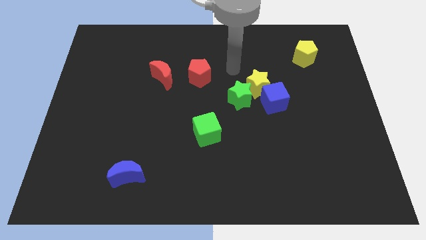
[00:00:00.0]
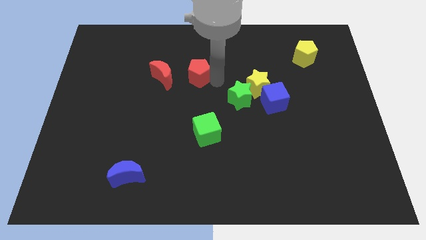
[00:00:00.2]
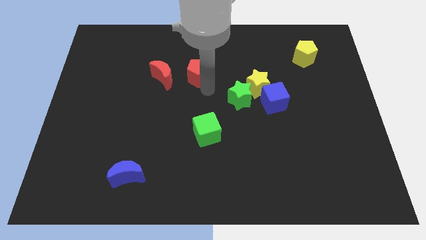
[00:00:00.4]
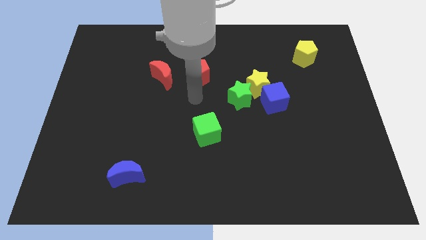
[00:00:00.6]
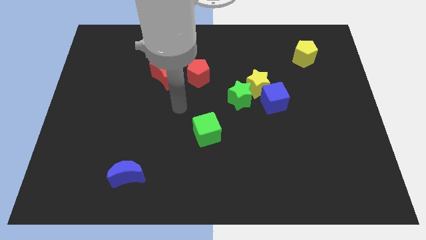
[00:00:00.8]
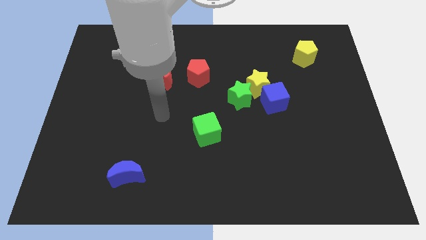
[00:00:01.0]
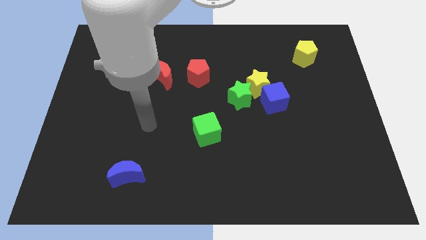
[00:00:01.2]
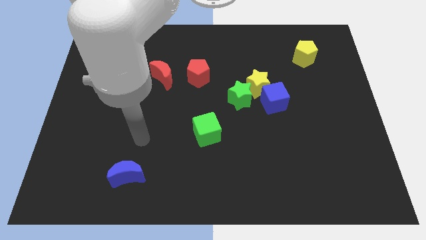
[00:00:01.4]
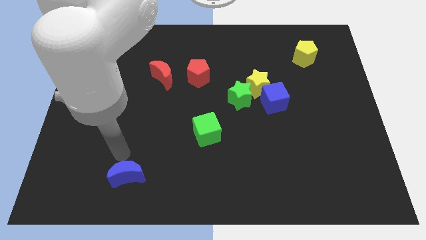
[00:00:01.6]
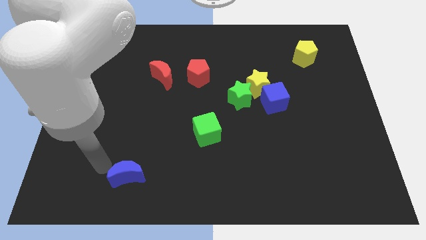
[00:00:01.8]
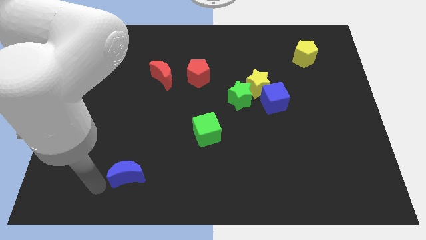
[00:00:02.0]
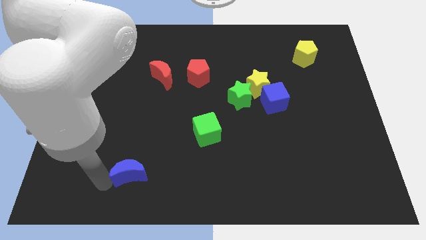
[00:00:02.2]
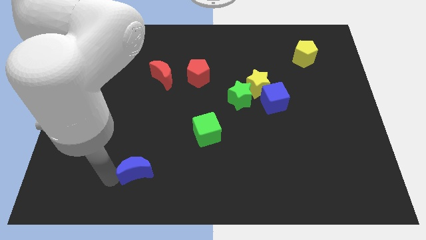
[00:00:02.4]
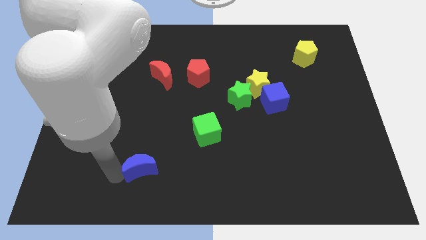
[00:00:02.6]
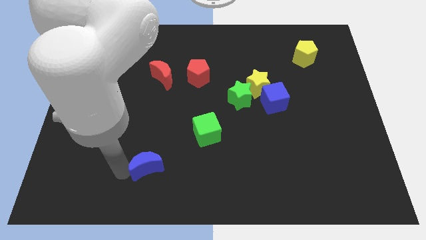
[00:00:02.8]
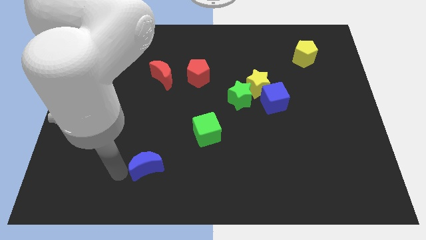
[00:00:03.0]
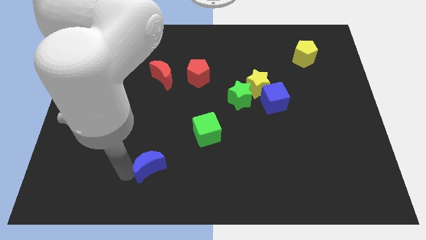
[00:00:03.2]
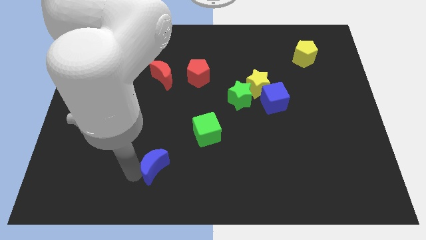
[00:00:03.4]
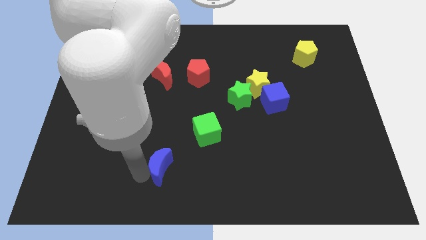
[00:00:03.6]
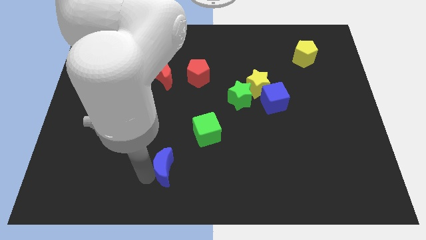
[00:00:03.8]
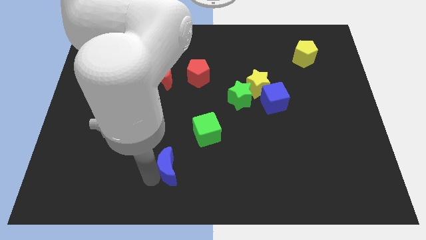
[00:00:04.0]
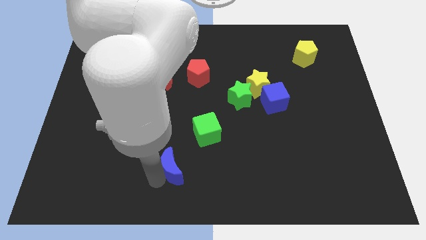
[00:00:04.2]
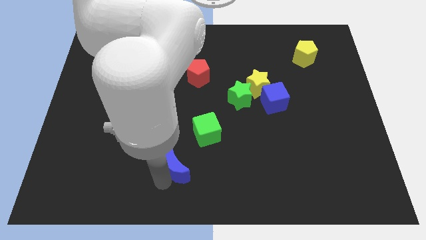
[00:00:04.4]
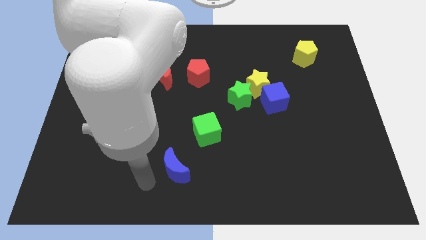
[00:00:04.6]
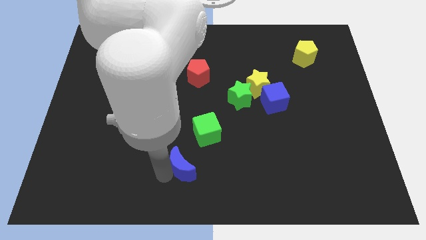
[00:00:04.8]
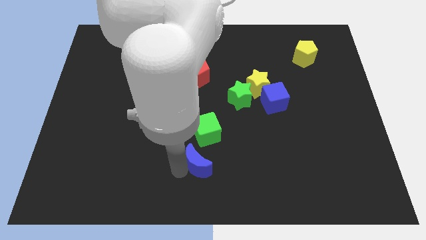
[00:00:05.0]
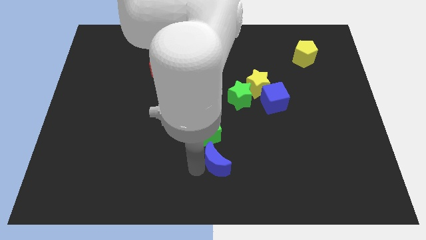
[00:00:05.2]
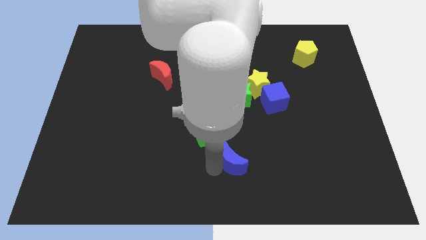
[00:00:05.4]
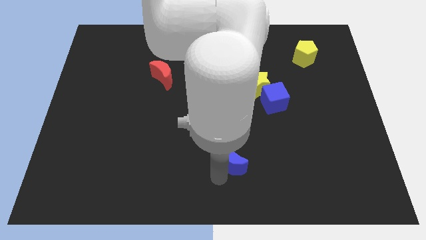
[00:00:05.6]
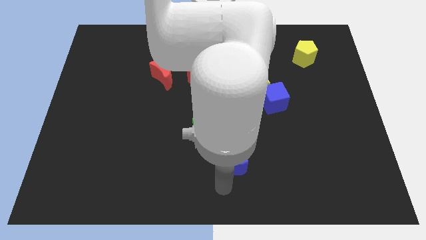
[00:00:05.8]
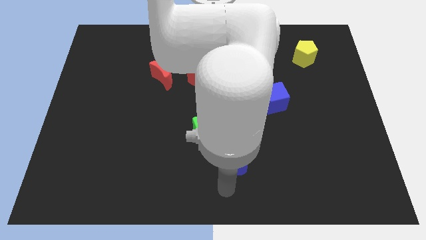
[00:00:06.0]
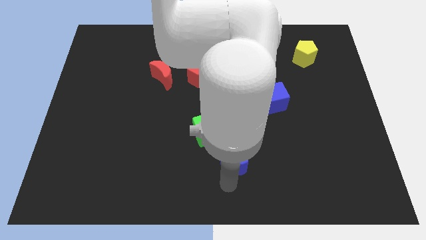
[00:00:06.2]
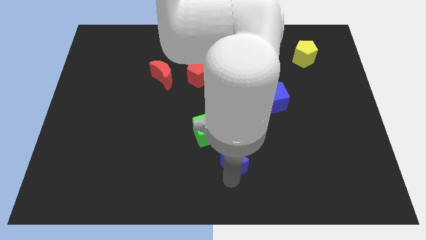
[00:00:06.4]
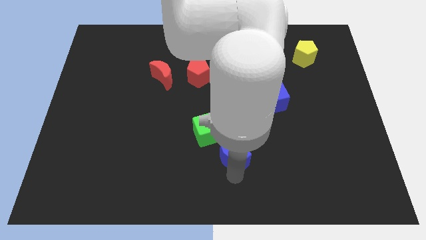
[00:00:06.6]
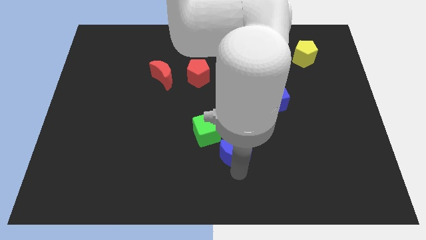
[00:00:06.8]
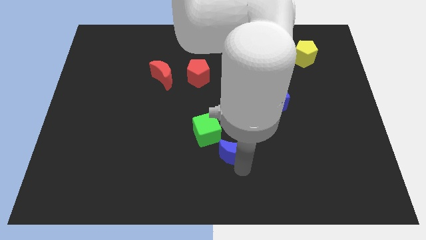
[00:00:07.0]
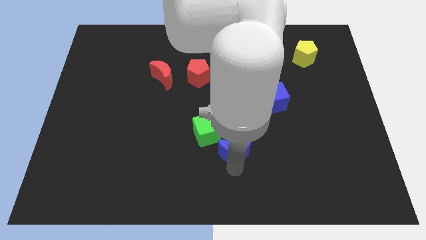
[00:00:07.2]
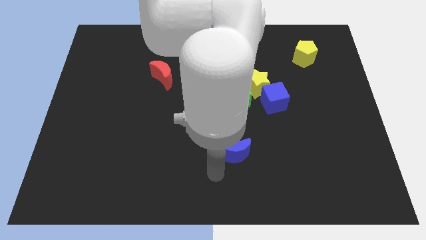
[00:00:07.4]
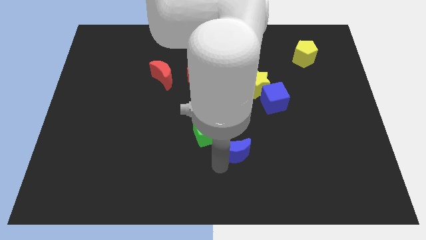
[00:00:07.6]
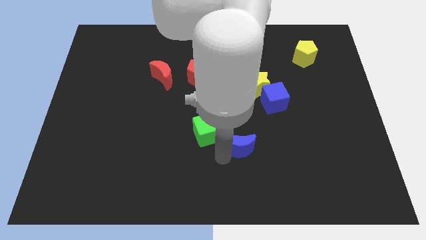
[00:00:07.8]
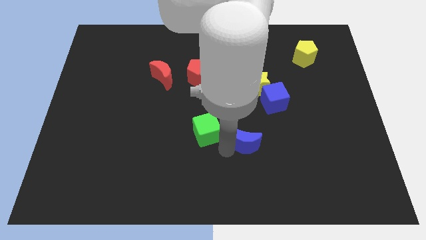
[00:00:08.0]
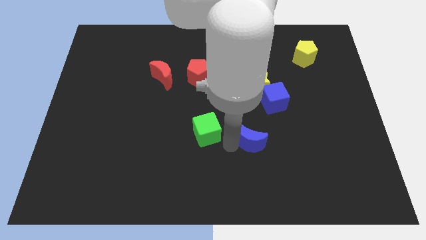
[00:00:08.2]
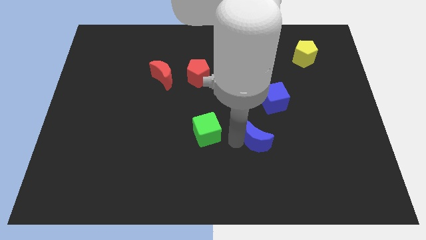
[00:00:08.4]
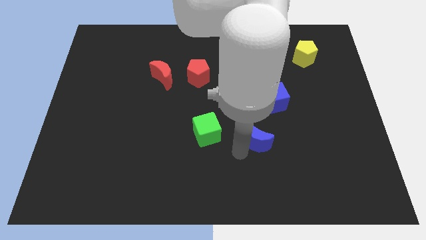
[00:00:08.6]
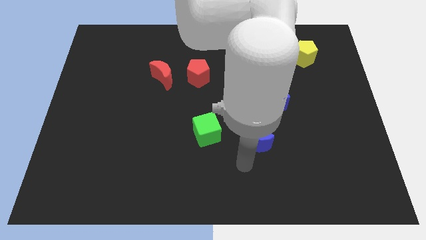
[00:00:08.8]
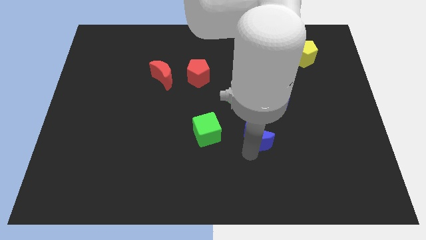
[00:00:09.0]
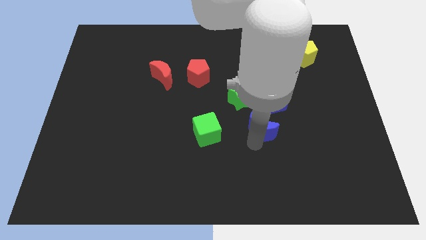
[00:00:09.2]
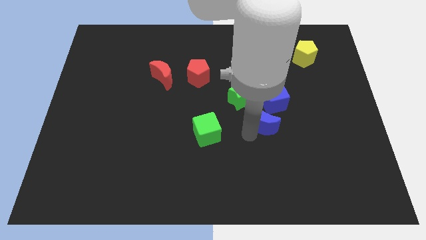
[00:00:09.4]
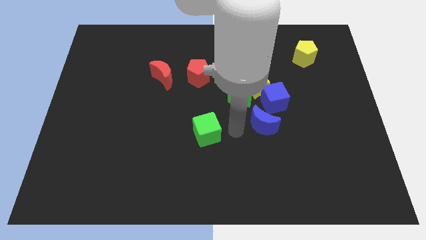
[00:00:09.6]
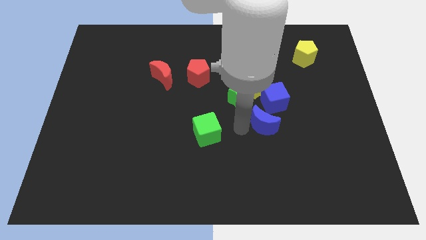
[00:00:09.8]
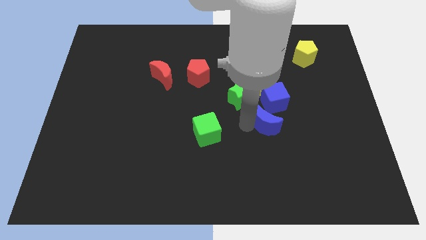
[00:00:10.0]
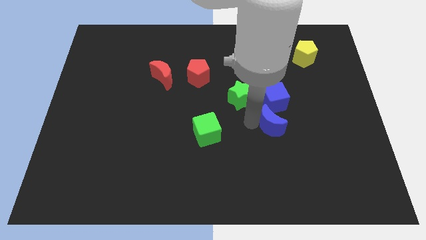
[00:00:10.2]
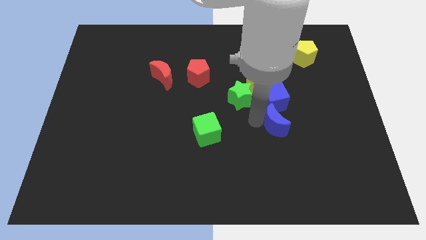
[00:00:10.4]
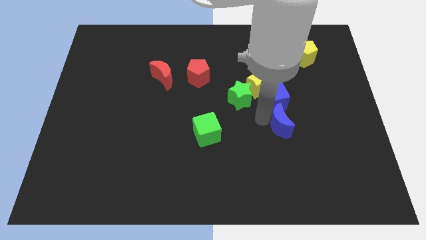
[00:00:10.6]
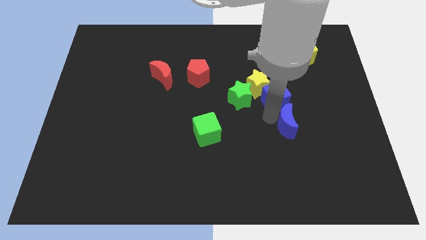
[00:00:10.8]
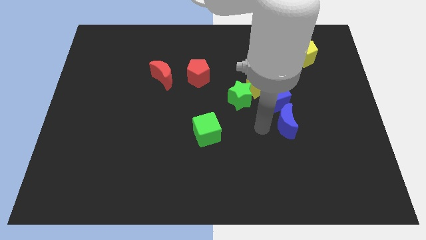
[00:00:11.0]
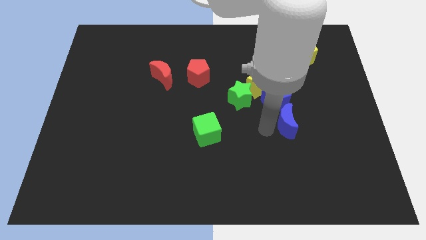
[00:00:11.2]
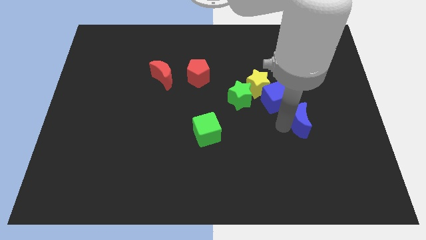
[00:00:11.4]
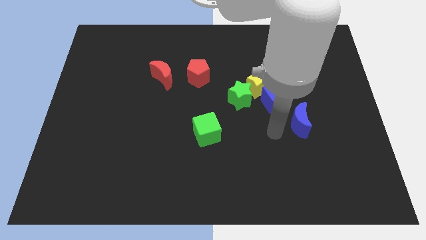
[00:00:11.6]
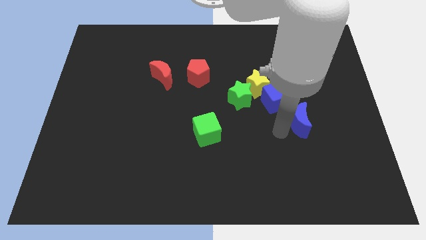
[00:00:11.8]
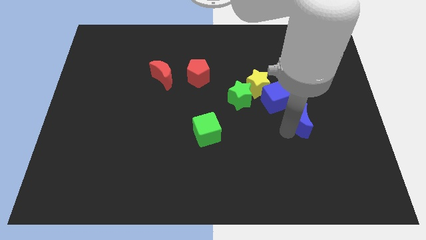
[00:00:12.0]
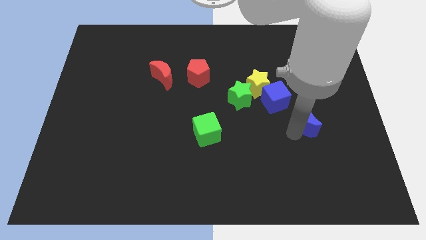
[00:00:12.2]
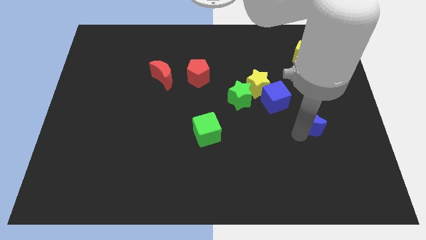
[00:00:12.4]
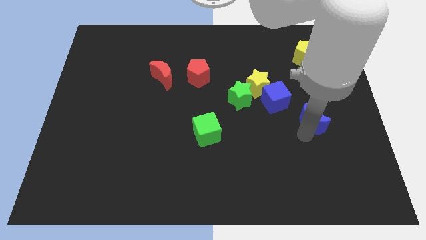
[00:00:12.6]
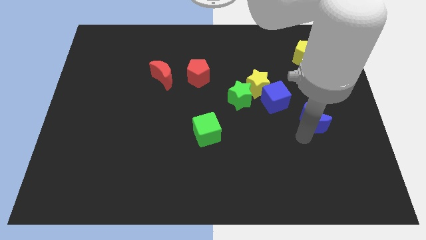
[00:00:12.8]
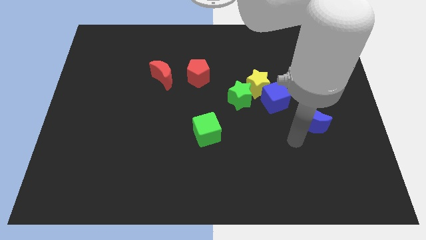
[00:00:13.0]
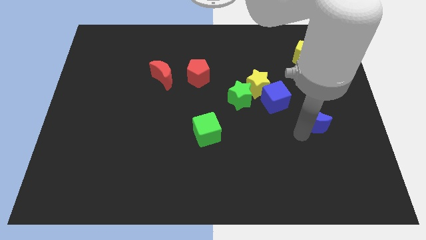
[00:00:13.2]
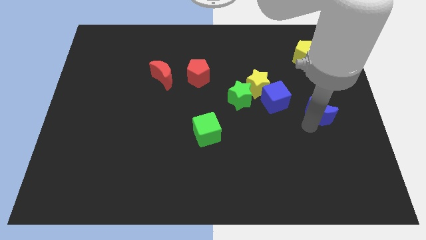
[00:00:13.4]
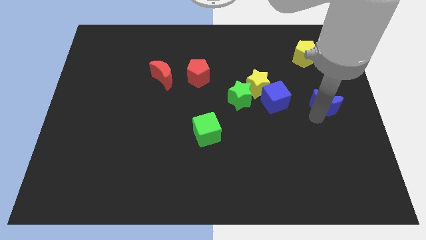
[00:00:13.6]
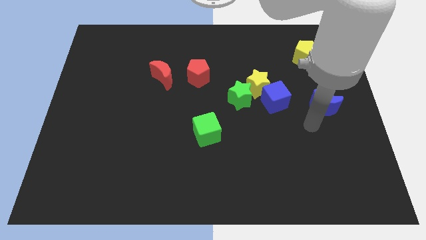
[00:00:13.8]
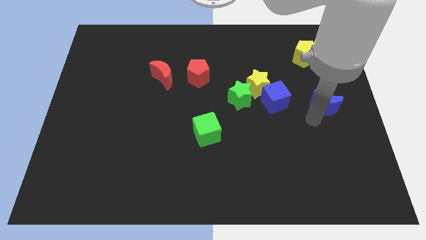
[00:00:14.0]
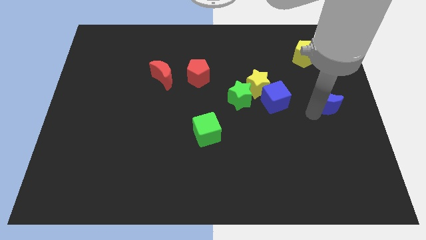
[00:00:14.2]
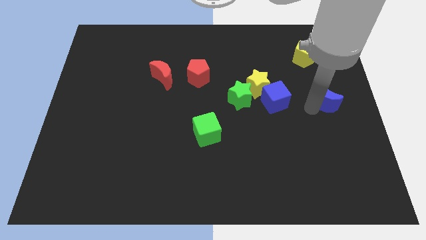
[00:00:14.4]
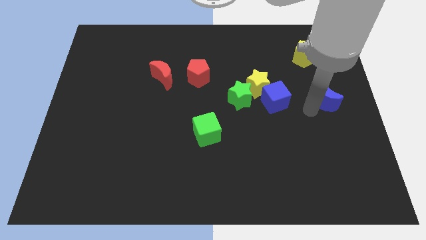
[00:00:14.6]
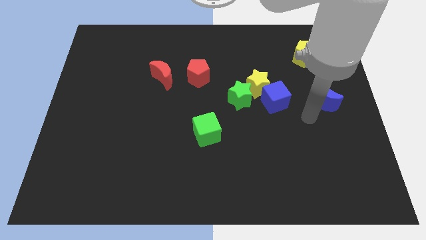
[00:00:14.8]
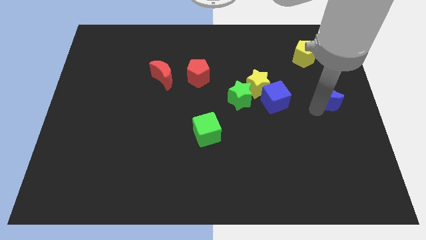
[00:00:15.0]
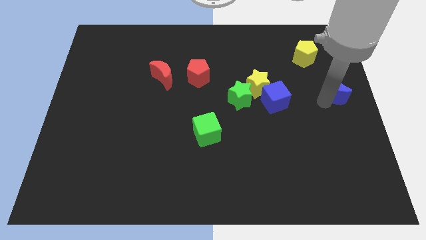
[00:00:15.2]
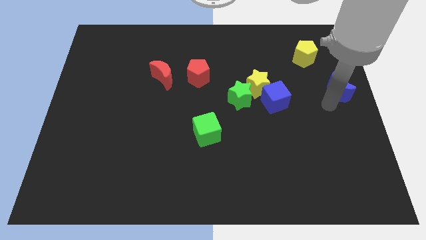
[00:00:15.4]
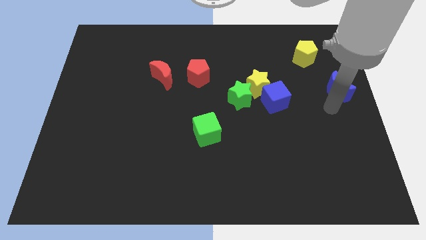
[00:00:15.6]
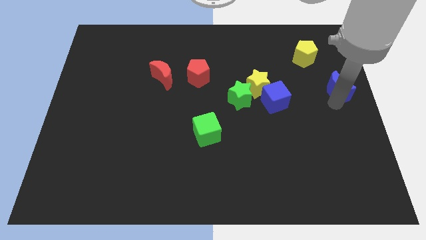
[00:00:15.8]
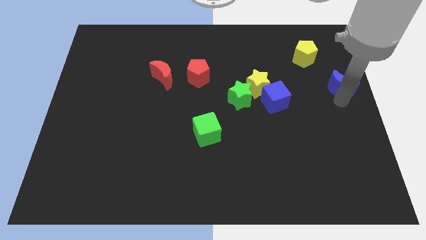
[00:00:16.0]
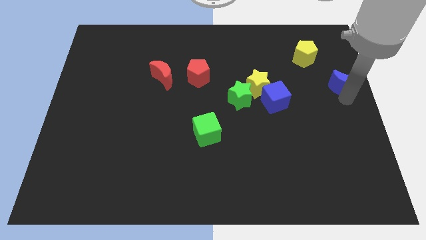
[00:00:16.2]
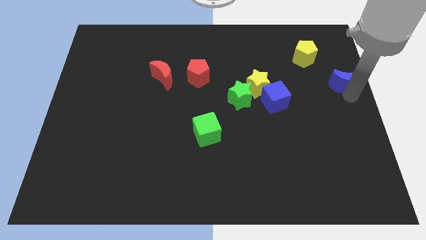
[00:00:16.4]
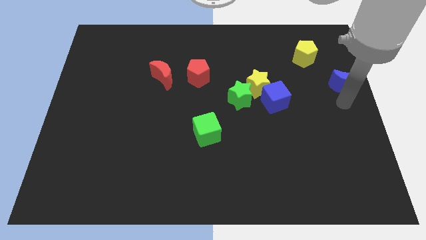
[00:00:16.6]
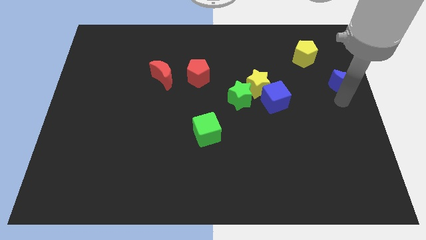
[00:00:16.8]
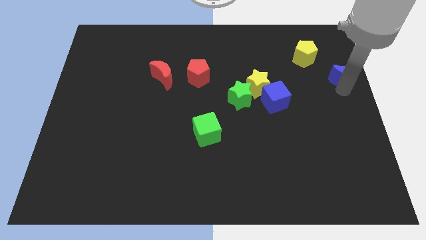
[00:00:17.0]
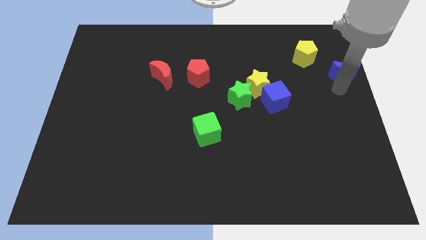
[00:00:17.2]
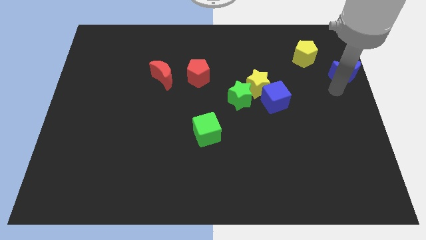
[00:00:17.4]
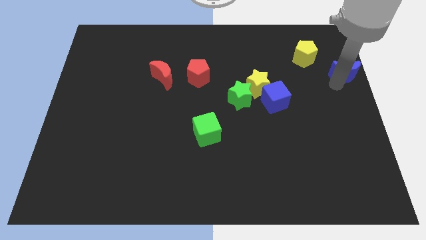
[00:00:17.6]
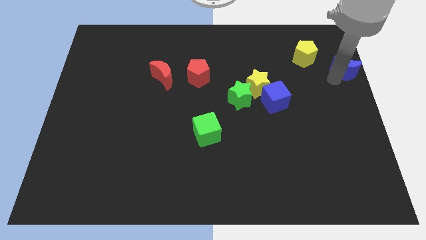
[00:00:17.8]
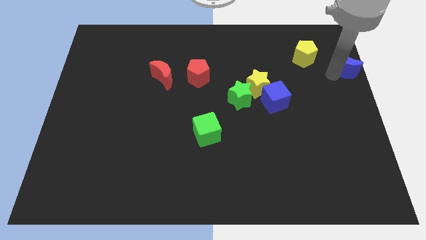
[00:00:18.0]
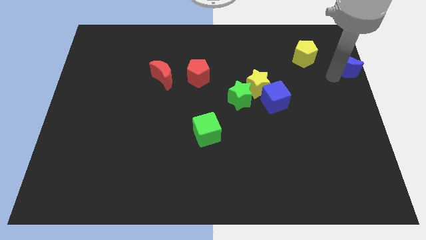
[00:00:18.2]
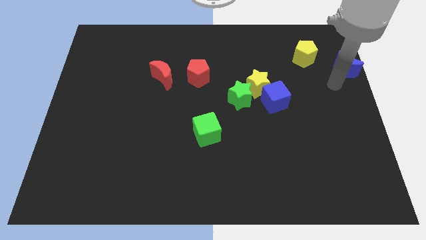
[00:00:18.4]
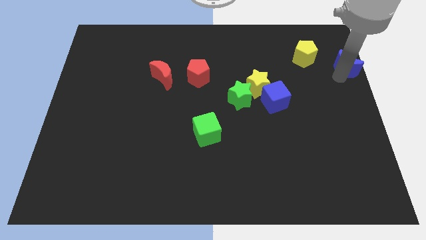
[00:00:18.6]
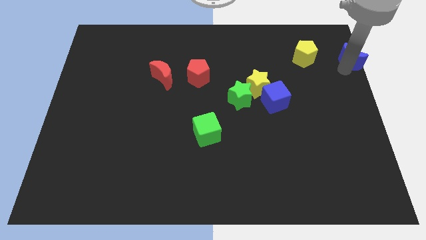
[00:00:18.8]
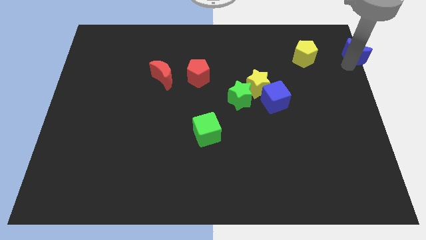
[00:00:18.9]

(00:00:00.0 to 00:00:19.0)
put the blue moon to the top right
